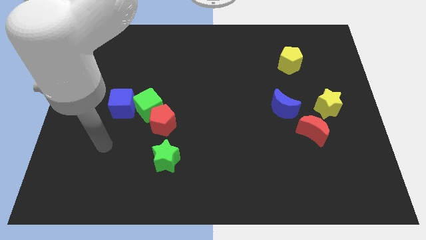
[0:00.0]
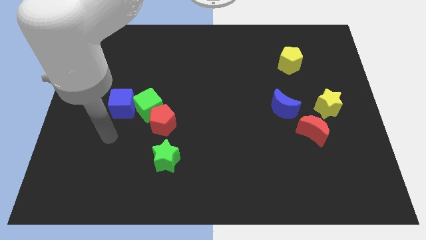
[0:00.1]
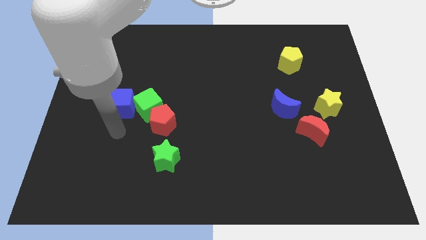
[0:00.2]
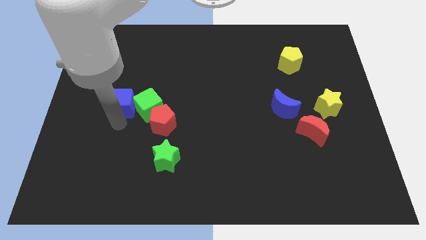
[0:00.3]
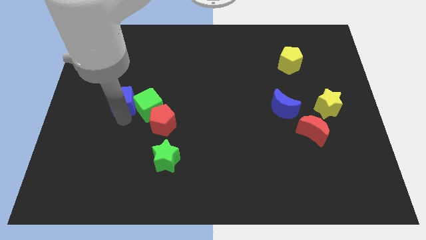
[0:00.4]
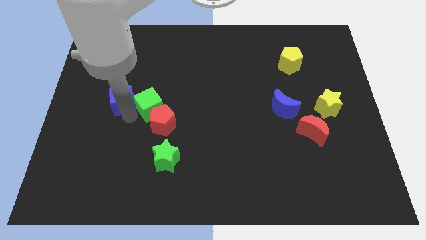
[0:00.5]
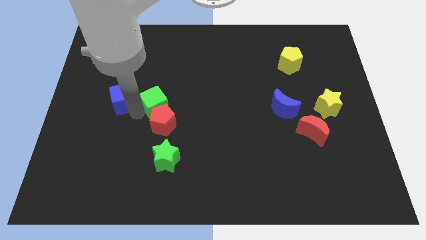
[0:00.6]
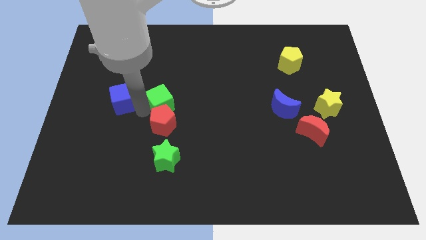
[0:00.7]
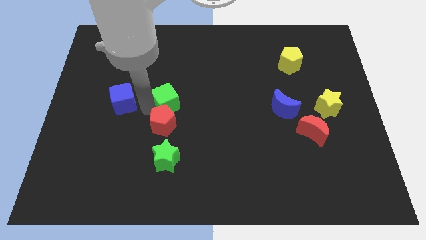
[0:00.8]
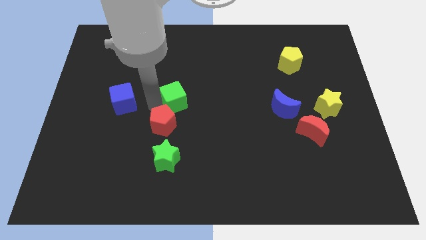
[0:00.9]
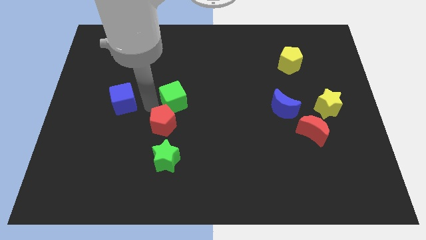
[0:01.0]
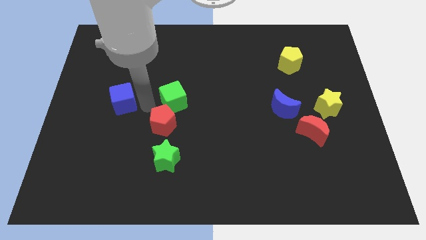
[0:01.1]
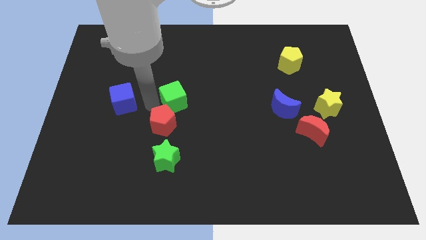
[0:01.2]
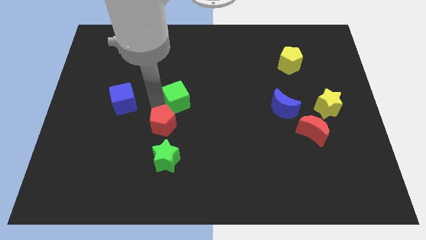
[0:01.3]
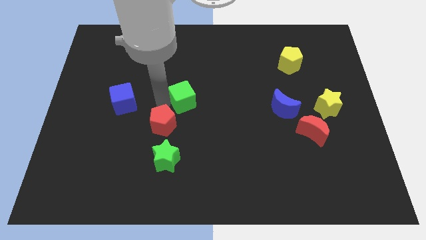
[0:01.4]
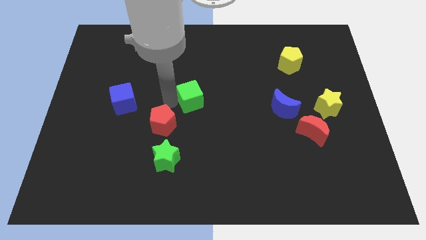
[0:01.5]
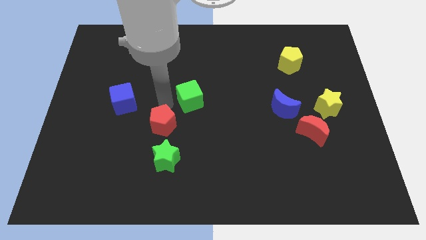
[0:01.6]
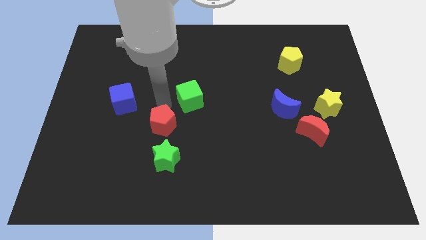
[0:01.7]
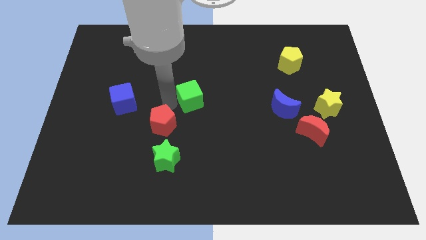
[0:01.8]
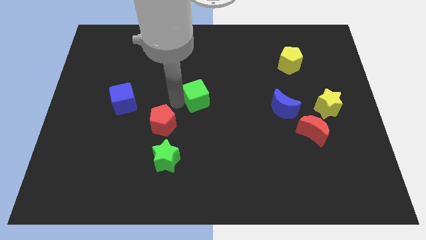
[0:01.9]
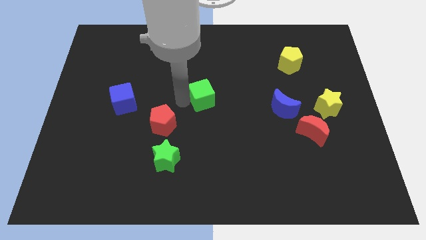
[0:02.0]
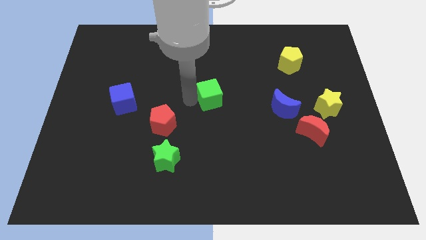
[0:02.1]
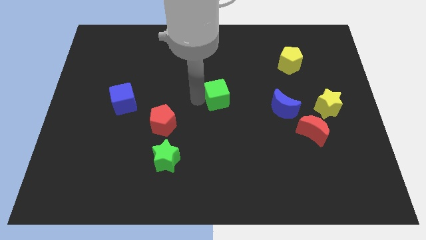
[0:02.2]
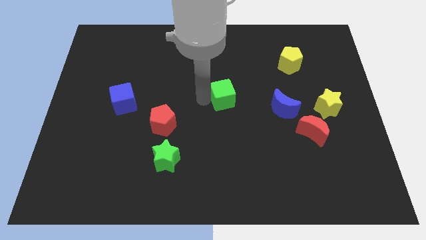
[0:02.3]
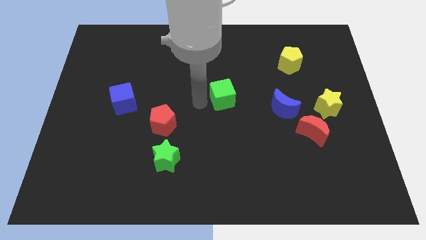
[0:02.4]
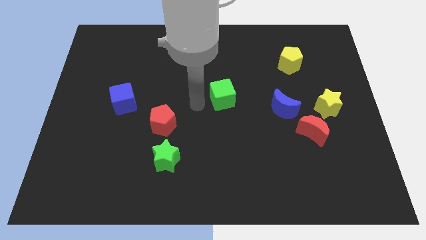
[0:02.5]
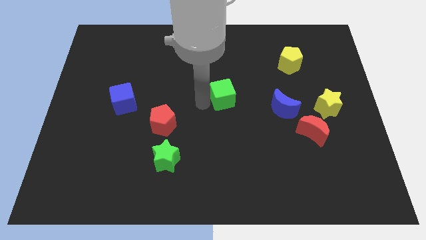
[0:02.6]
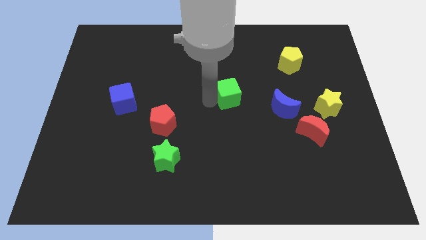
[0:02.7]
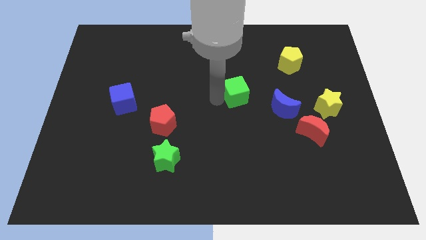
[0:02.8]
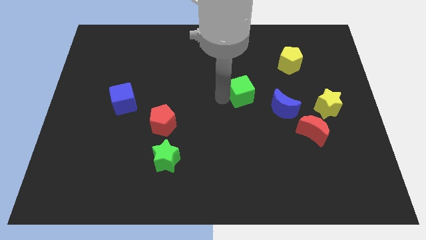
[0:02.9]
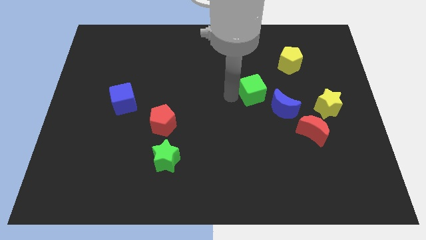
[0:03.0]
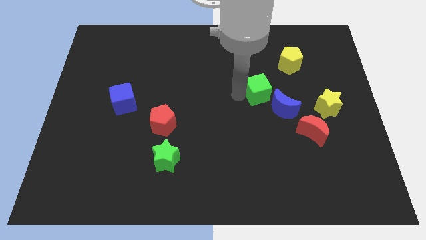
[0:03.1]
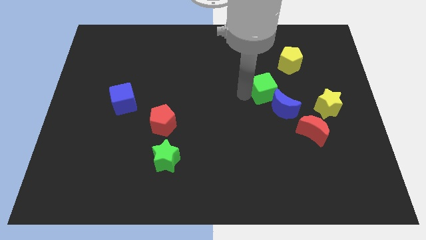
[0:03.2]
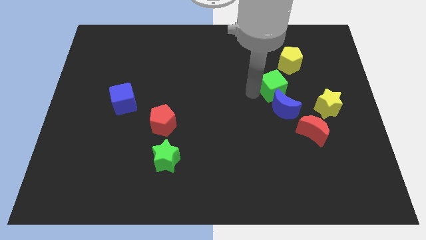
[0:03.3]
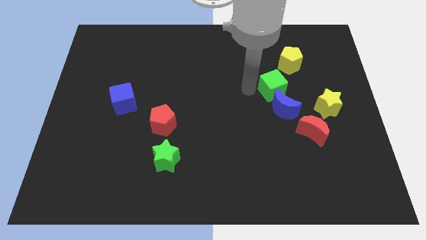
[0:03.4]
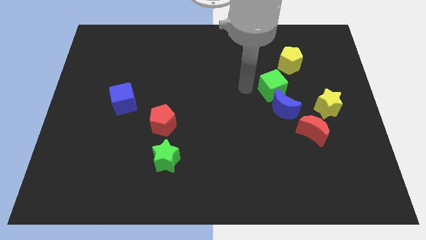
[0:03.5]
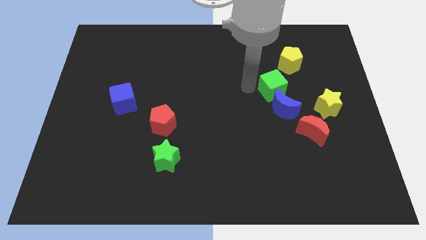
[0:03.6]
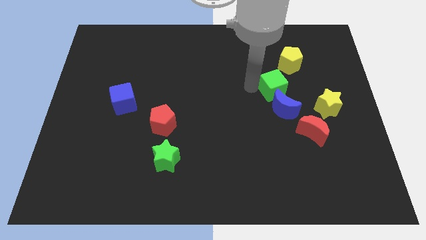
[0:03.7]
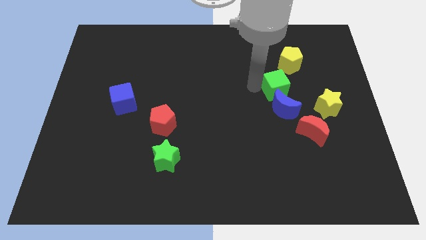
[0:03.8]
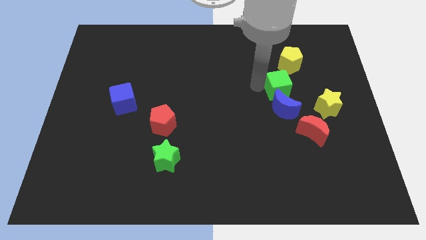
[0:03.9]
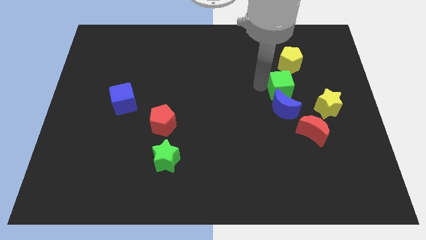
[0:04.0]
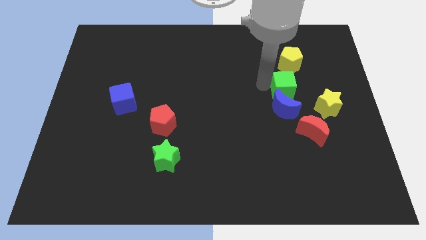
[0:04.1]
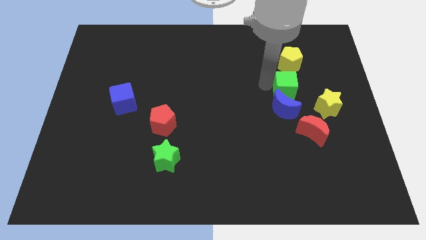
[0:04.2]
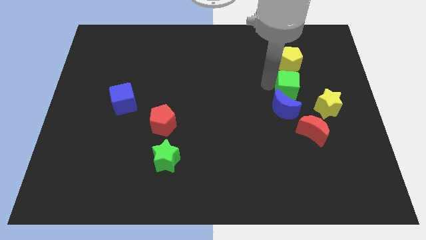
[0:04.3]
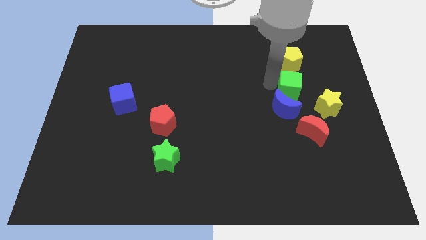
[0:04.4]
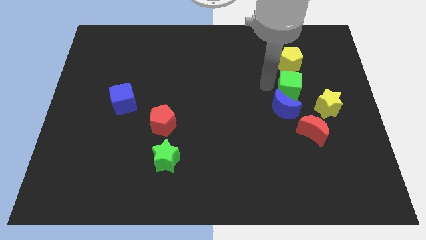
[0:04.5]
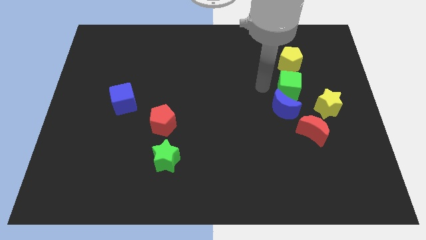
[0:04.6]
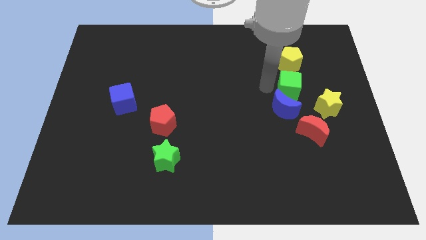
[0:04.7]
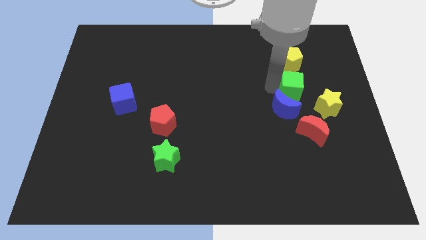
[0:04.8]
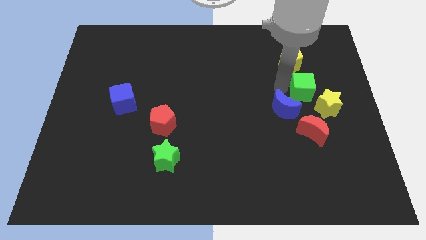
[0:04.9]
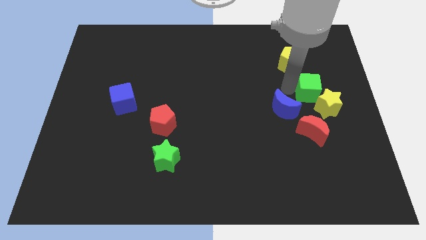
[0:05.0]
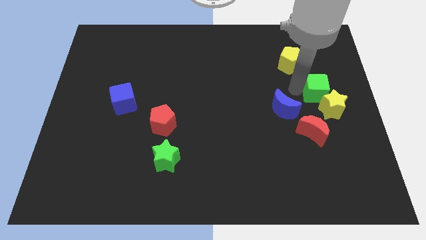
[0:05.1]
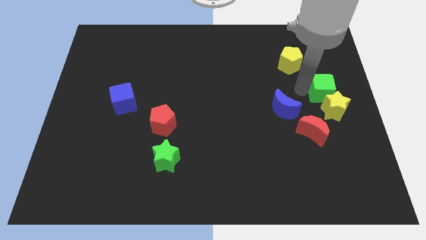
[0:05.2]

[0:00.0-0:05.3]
push the green cube to the center right
